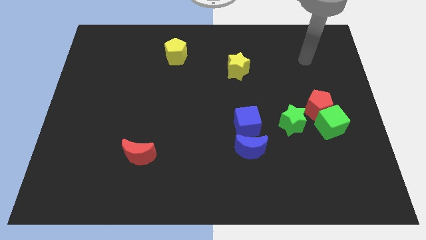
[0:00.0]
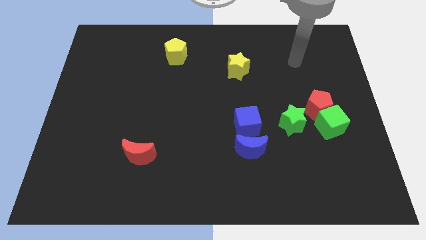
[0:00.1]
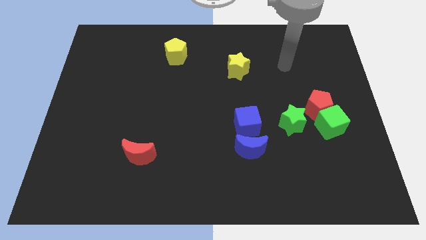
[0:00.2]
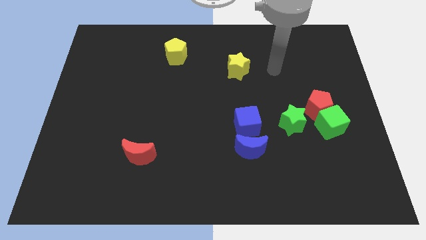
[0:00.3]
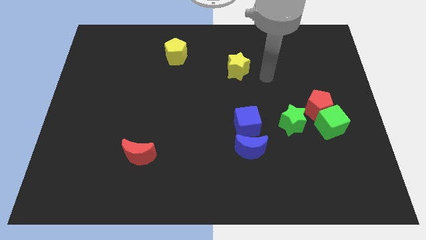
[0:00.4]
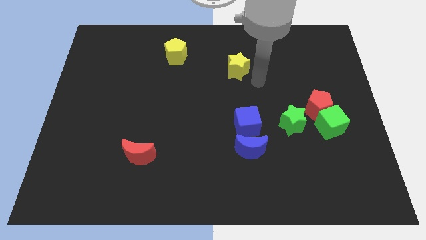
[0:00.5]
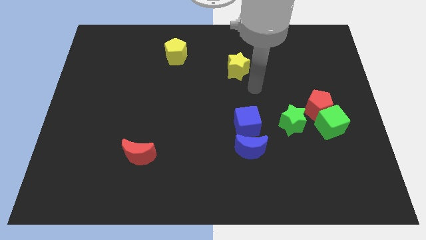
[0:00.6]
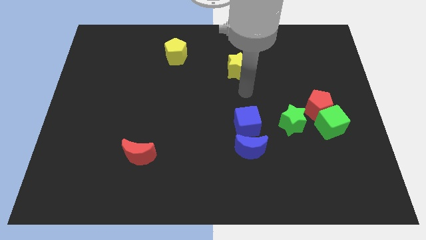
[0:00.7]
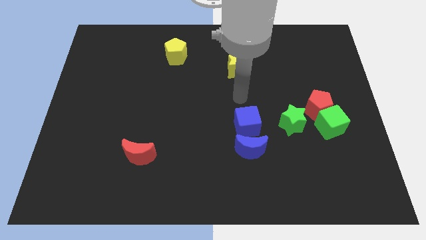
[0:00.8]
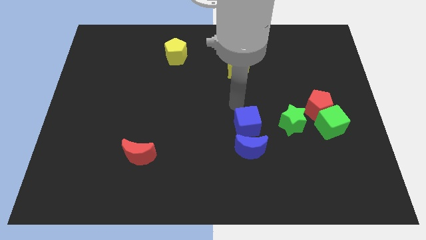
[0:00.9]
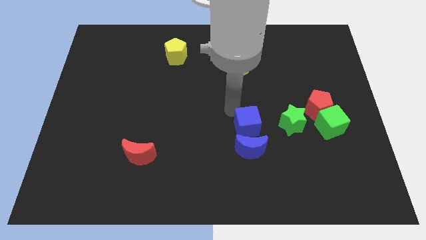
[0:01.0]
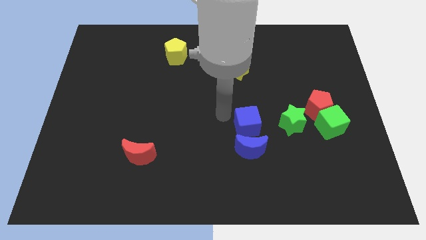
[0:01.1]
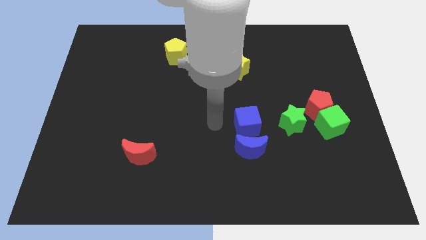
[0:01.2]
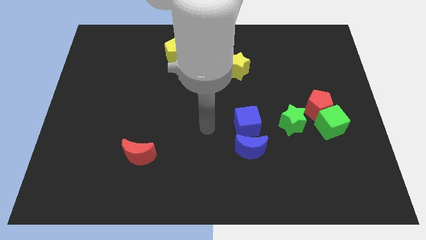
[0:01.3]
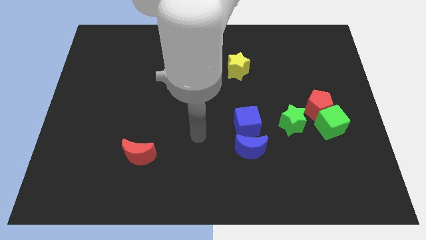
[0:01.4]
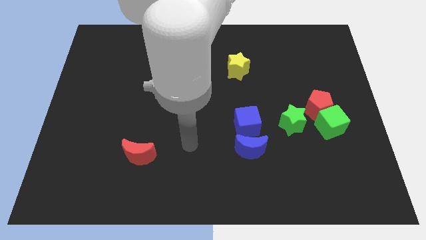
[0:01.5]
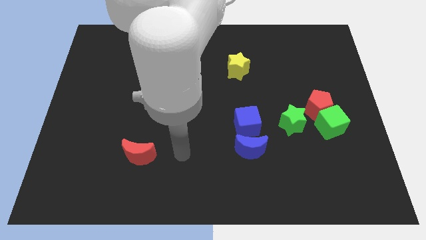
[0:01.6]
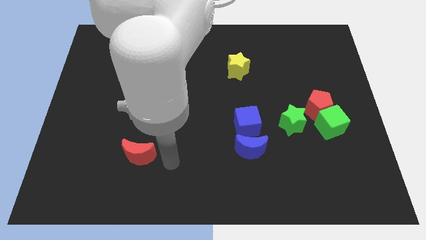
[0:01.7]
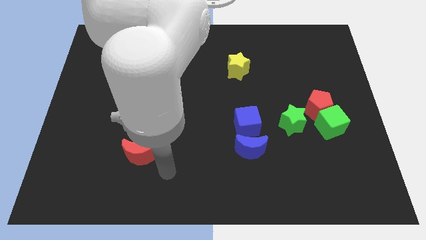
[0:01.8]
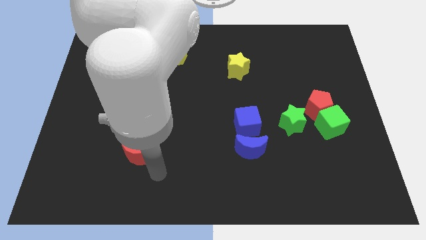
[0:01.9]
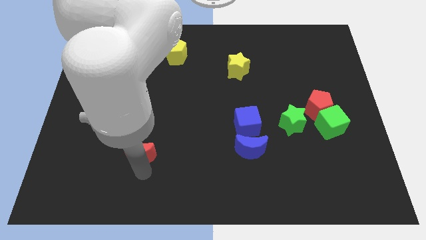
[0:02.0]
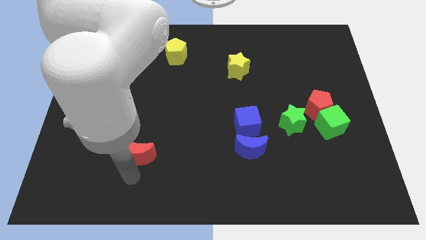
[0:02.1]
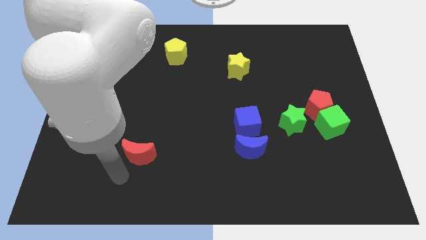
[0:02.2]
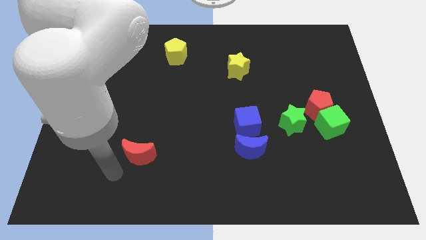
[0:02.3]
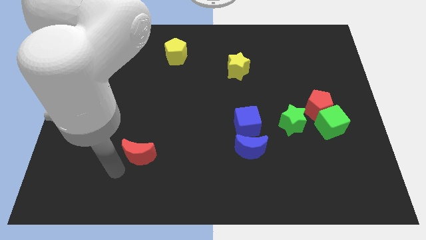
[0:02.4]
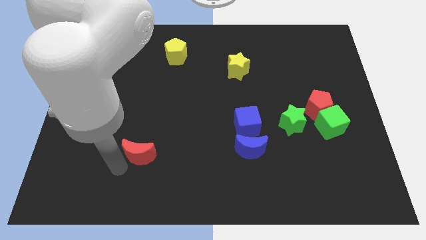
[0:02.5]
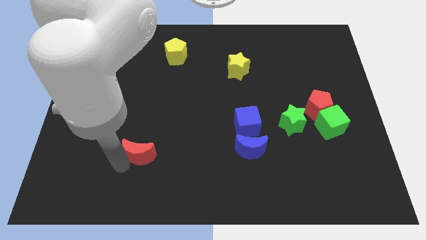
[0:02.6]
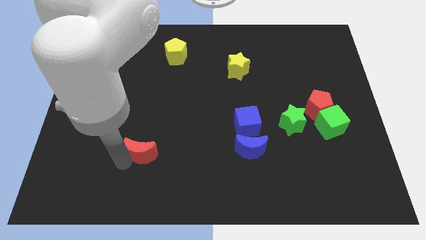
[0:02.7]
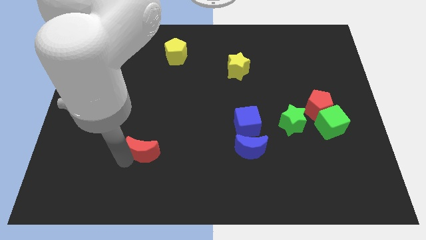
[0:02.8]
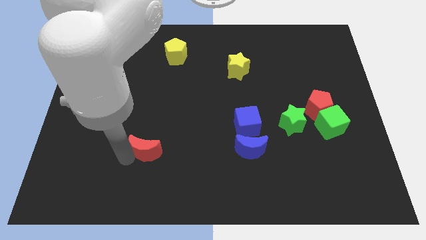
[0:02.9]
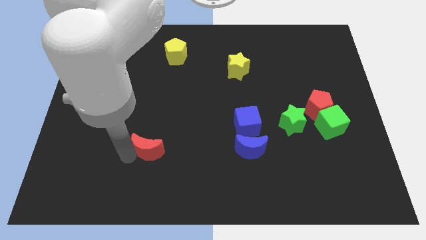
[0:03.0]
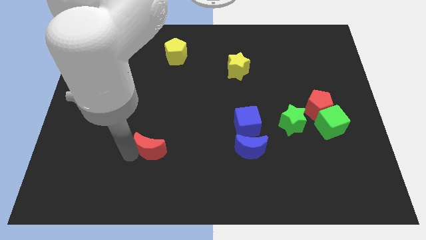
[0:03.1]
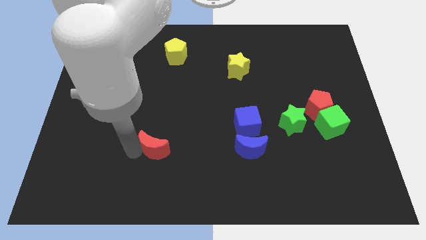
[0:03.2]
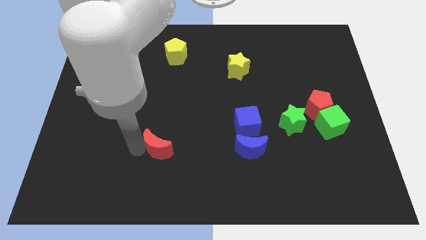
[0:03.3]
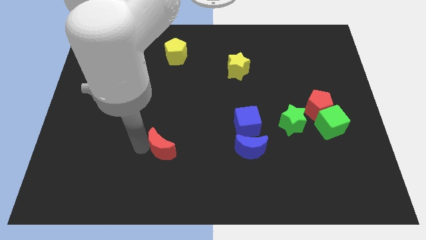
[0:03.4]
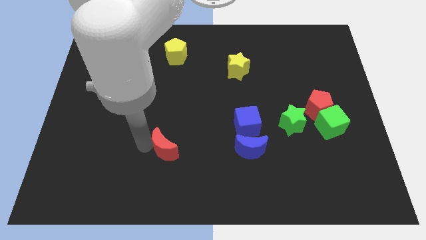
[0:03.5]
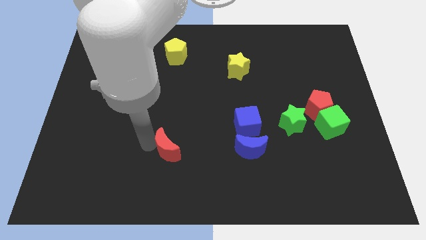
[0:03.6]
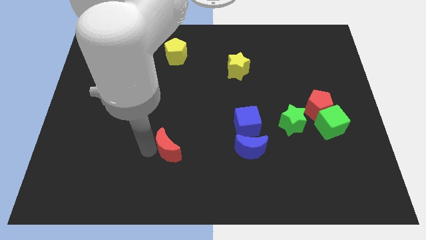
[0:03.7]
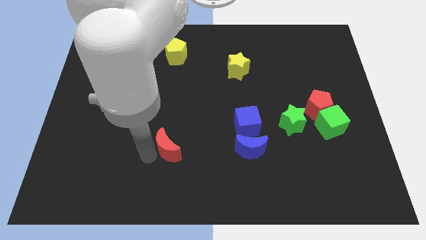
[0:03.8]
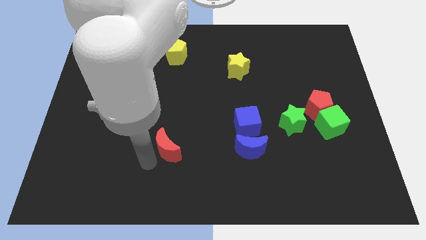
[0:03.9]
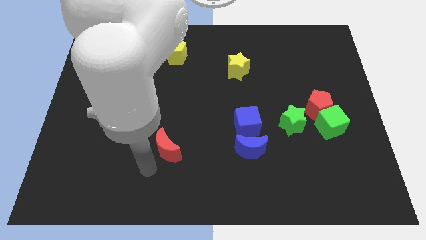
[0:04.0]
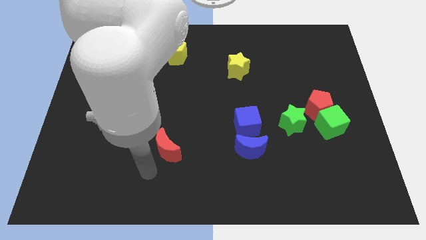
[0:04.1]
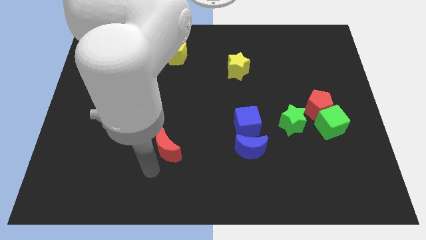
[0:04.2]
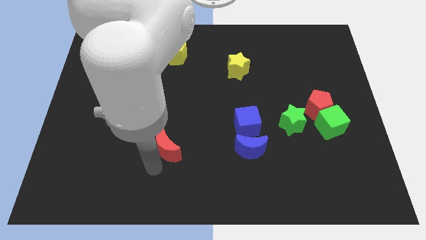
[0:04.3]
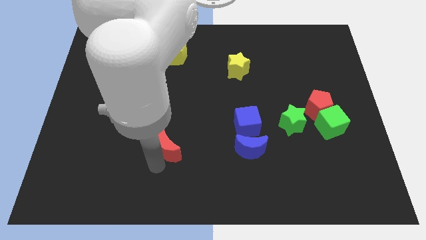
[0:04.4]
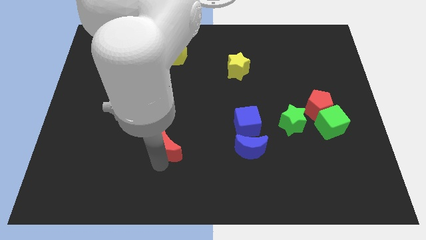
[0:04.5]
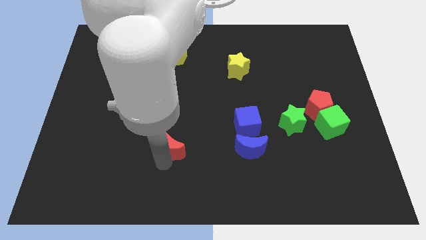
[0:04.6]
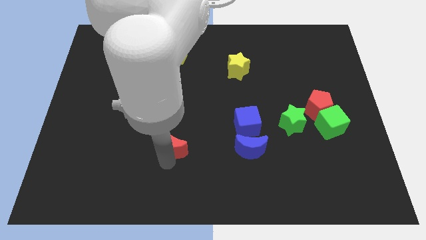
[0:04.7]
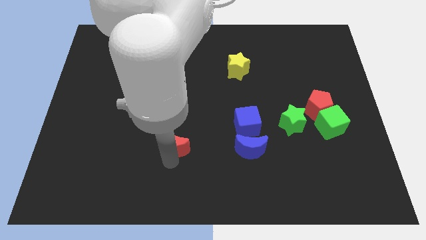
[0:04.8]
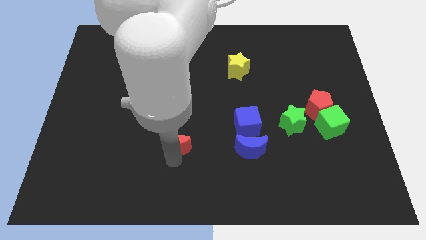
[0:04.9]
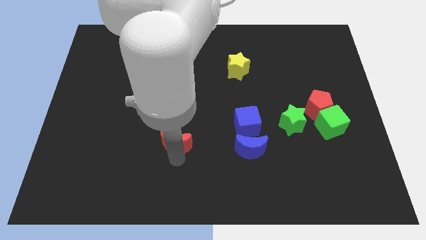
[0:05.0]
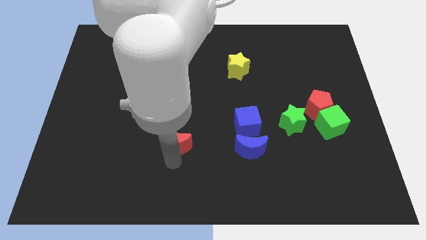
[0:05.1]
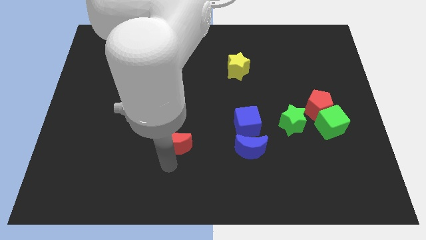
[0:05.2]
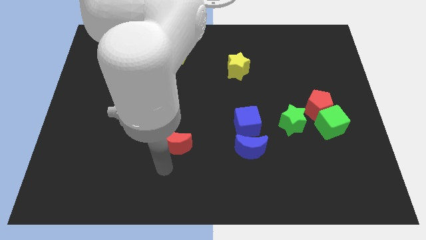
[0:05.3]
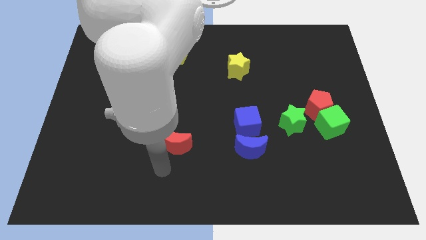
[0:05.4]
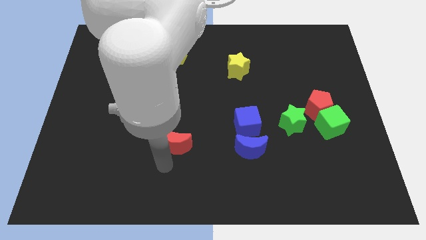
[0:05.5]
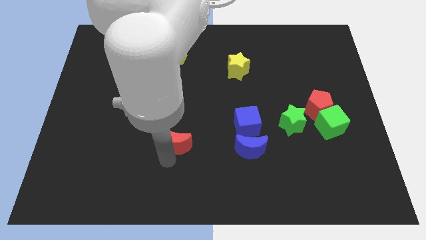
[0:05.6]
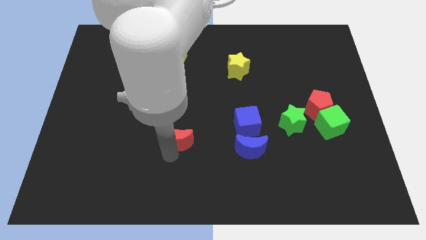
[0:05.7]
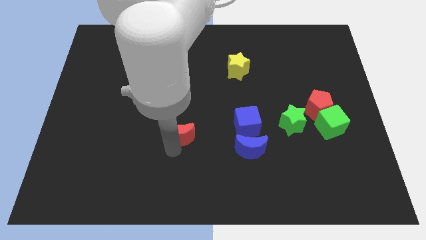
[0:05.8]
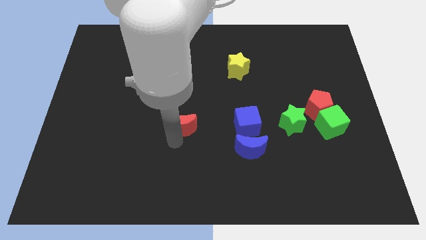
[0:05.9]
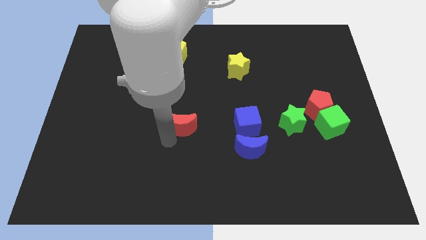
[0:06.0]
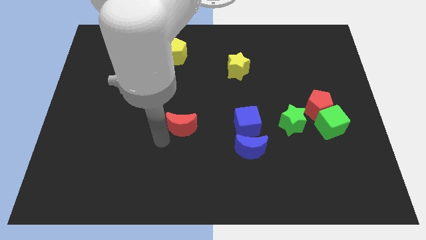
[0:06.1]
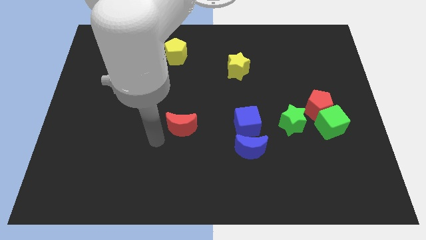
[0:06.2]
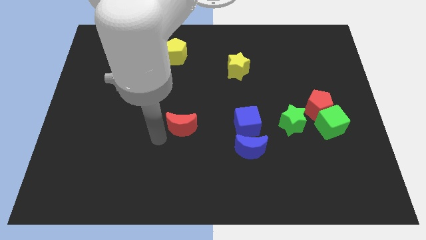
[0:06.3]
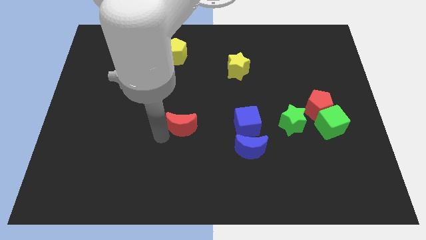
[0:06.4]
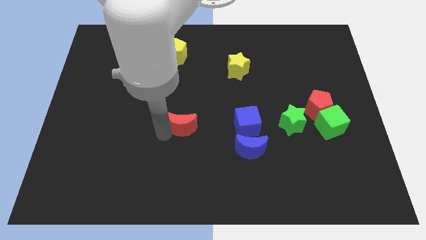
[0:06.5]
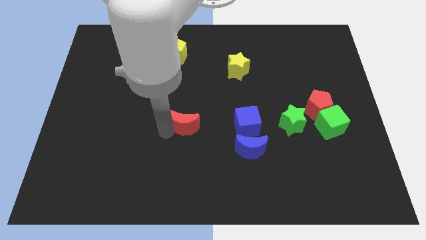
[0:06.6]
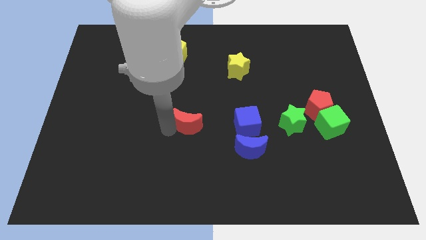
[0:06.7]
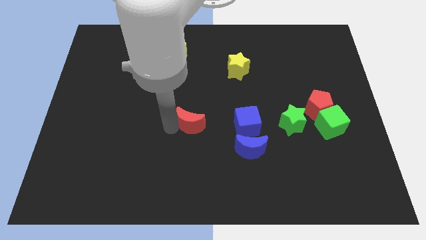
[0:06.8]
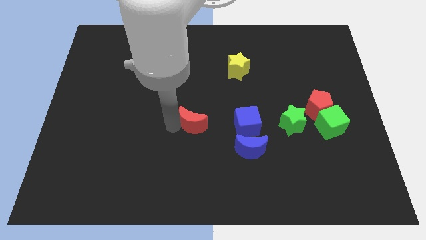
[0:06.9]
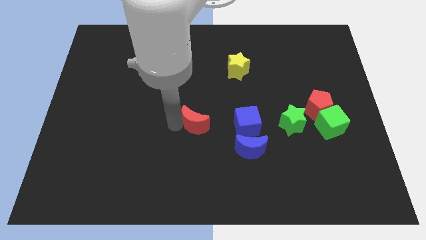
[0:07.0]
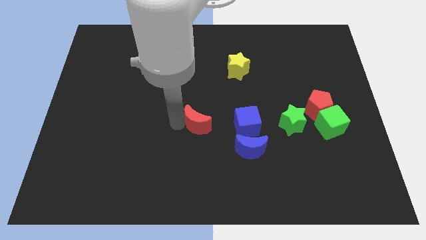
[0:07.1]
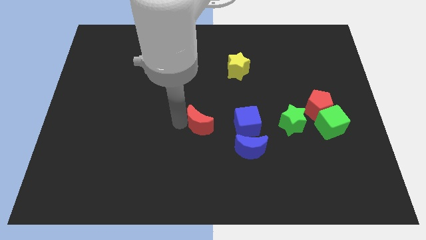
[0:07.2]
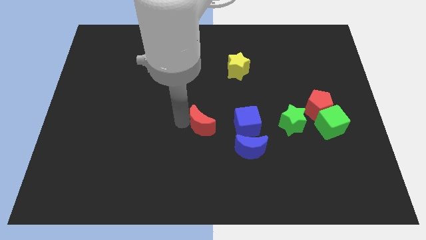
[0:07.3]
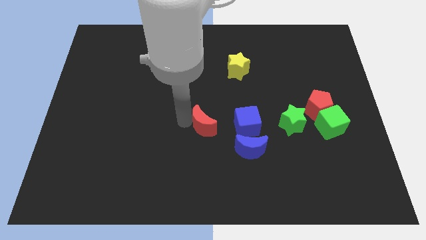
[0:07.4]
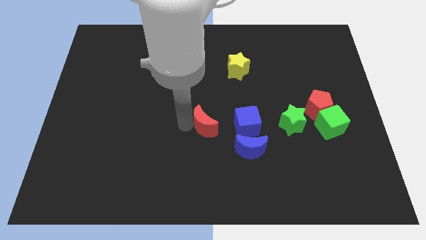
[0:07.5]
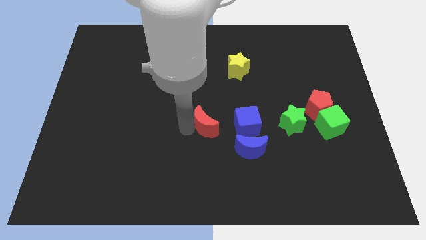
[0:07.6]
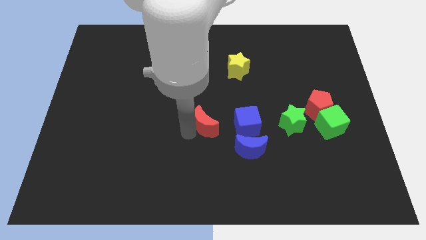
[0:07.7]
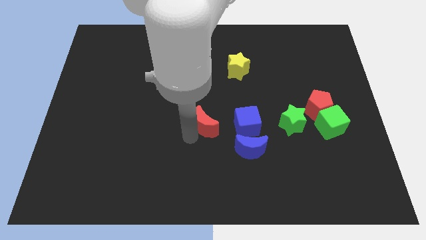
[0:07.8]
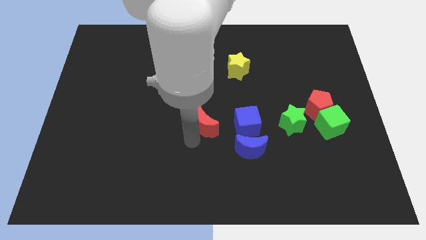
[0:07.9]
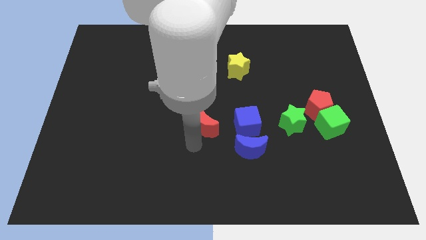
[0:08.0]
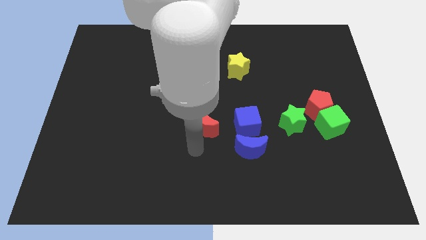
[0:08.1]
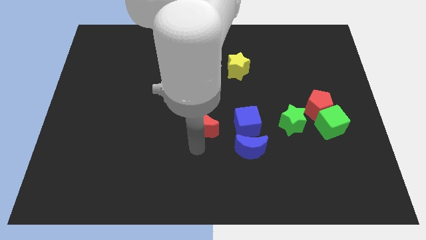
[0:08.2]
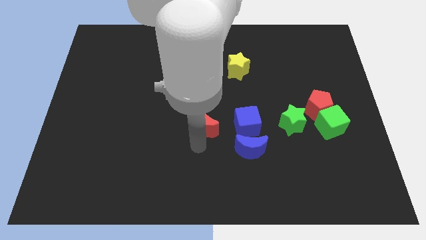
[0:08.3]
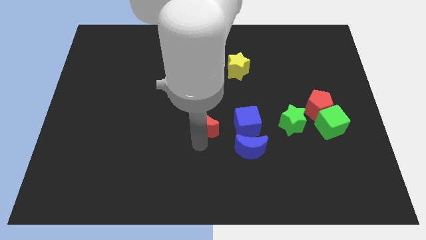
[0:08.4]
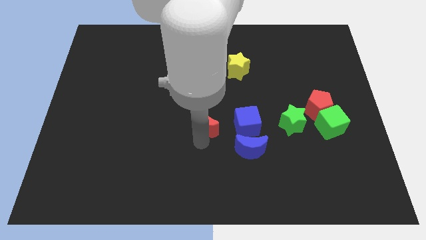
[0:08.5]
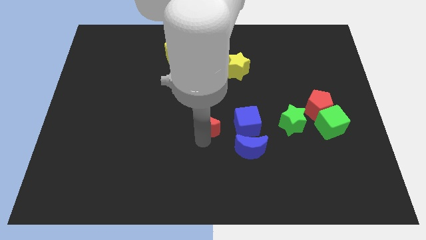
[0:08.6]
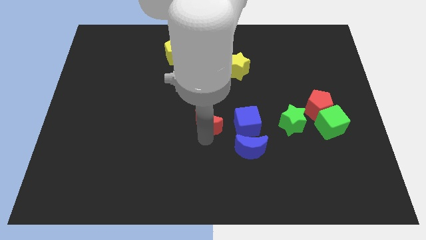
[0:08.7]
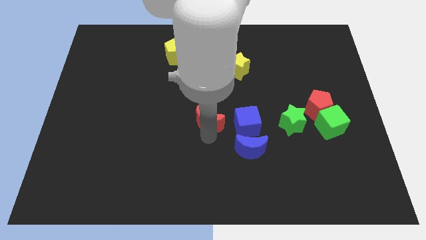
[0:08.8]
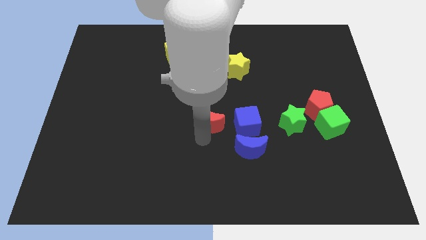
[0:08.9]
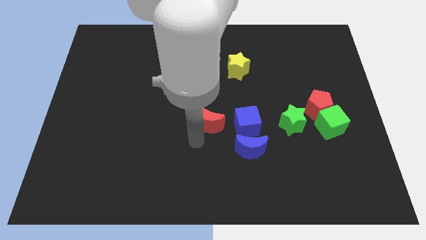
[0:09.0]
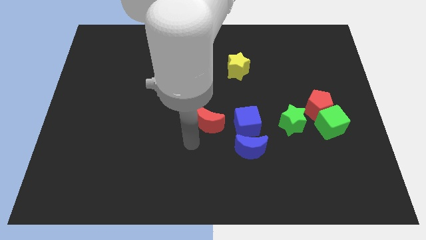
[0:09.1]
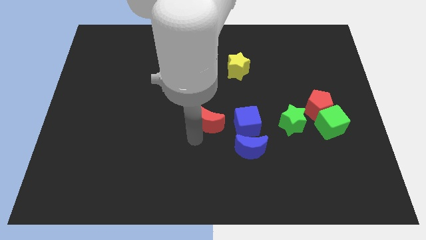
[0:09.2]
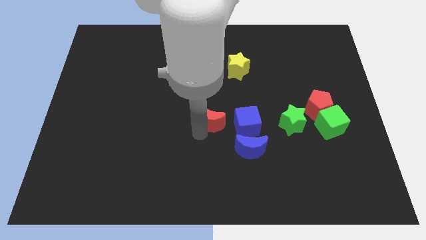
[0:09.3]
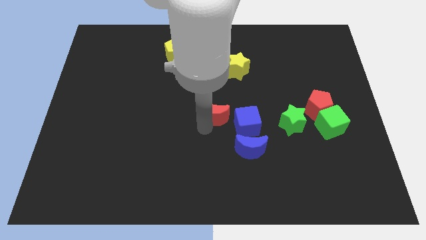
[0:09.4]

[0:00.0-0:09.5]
move the red moon diagonally up and to the left of the blue cube
